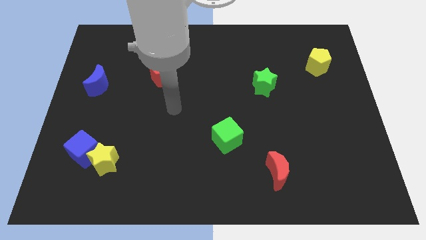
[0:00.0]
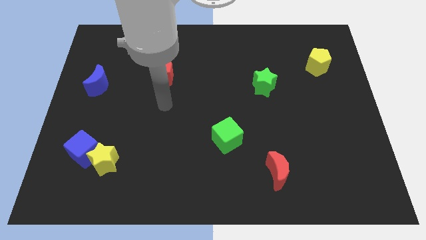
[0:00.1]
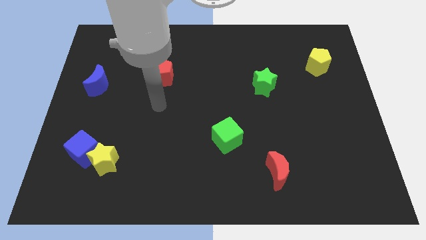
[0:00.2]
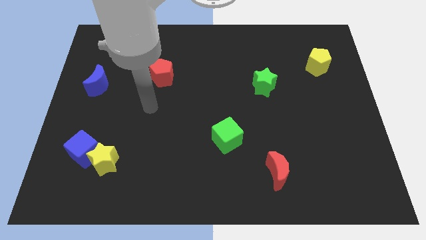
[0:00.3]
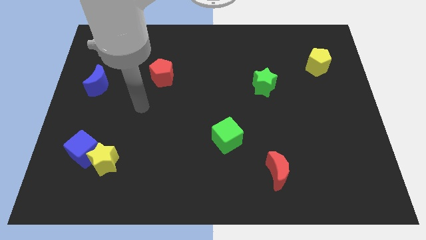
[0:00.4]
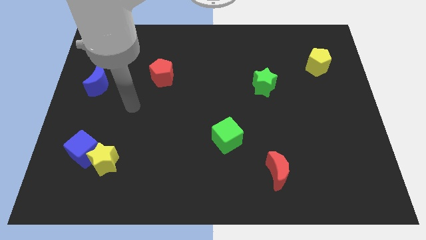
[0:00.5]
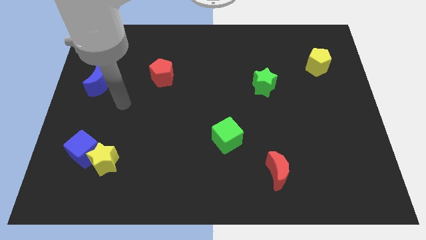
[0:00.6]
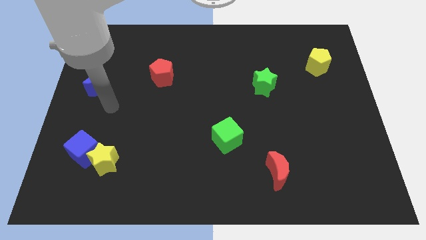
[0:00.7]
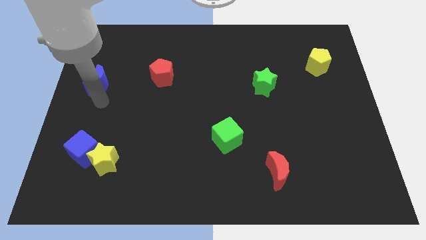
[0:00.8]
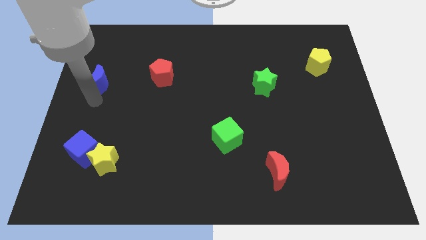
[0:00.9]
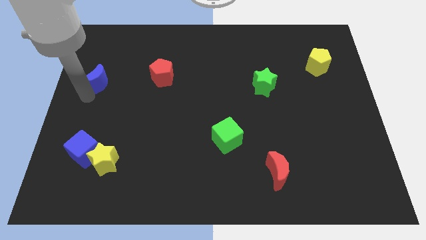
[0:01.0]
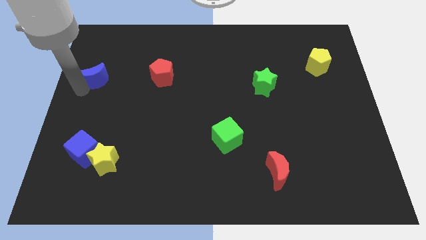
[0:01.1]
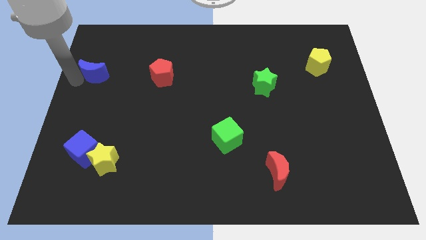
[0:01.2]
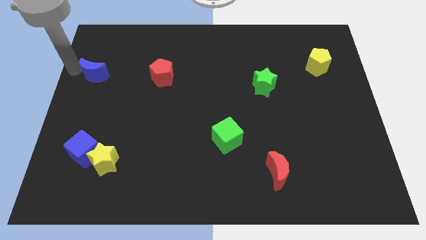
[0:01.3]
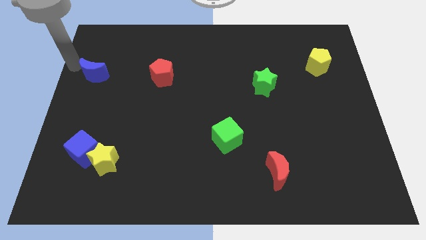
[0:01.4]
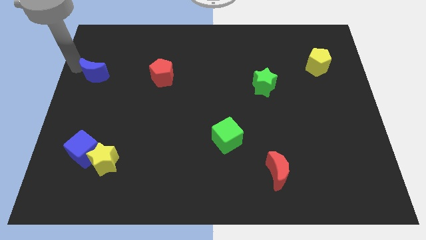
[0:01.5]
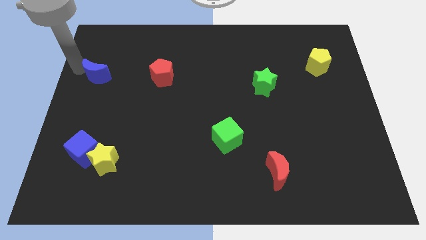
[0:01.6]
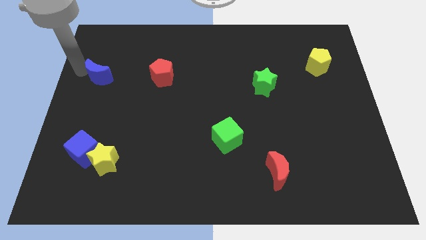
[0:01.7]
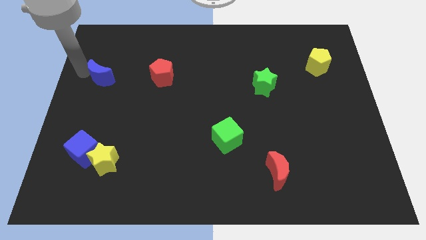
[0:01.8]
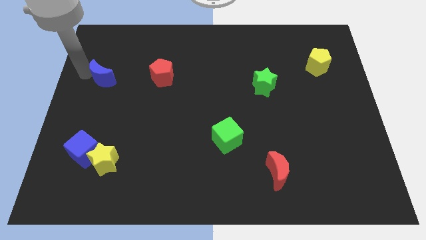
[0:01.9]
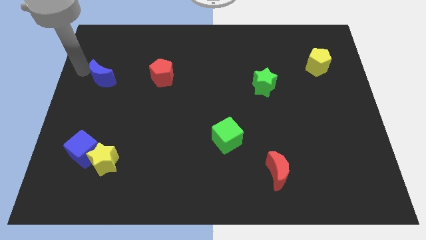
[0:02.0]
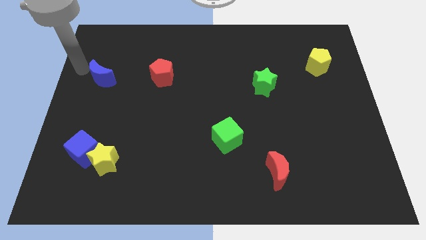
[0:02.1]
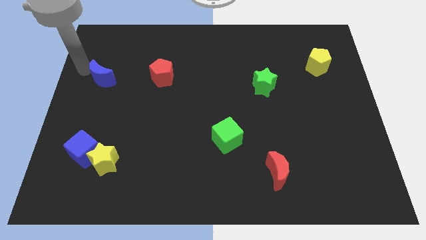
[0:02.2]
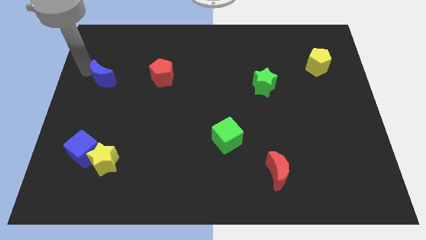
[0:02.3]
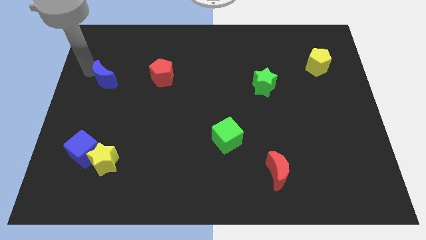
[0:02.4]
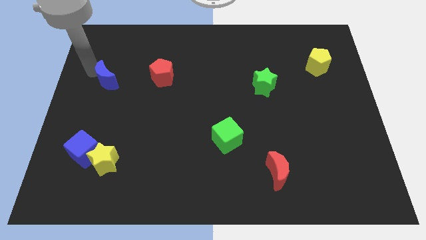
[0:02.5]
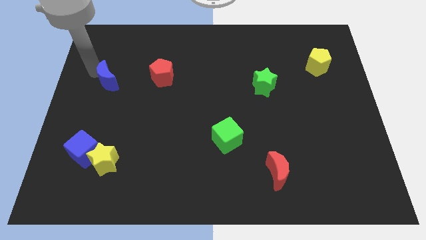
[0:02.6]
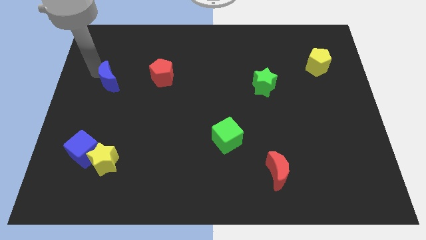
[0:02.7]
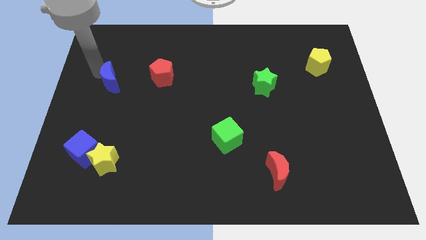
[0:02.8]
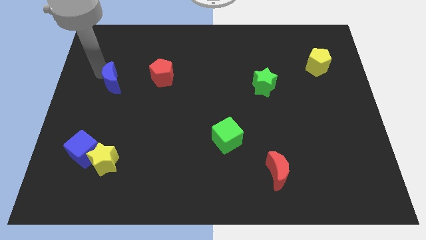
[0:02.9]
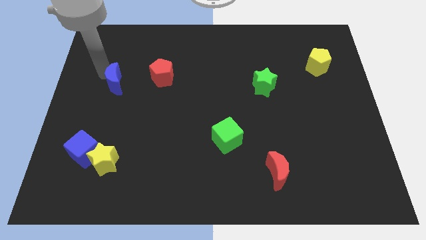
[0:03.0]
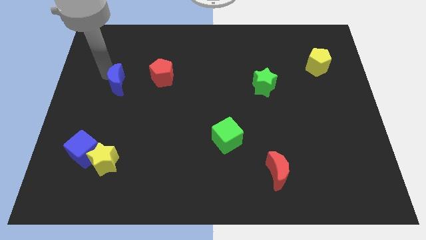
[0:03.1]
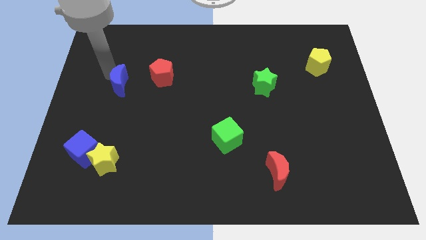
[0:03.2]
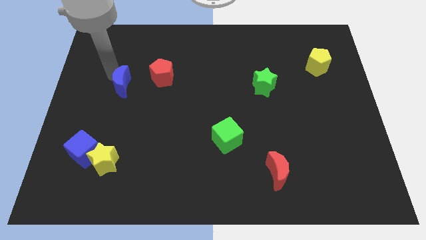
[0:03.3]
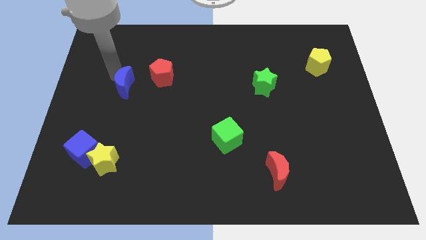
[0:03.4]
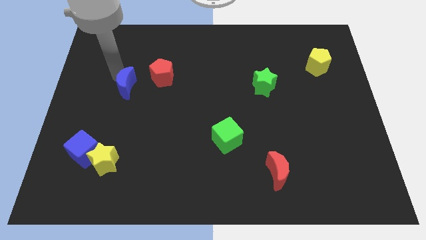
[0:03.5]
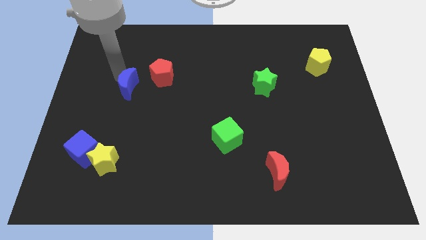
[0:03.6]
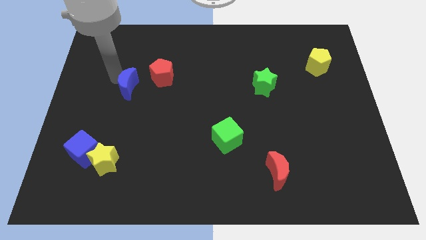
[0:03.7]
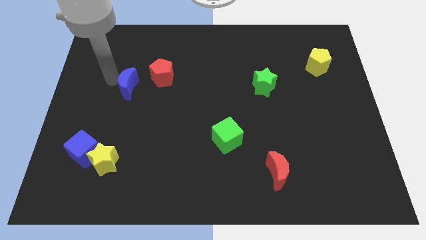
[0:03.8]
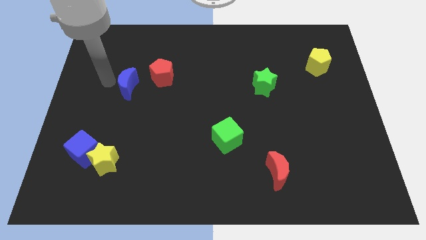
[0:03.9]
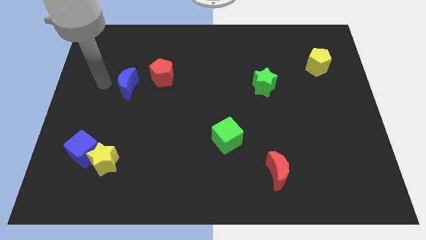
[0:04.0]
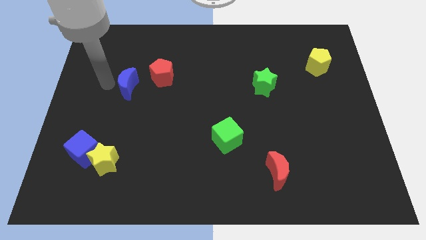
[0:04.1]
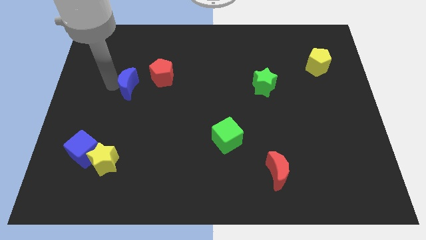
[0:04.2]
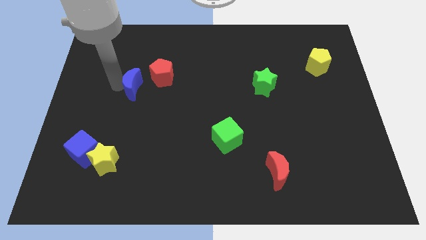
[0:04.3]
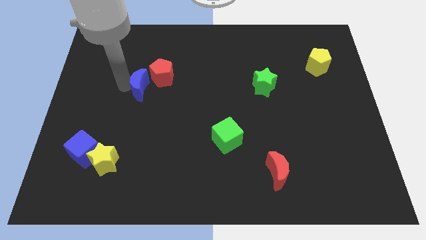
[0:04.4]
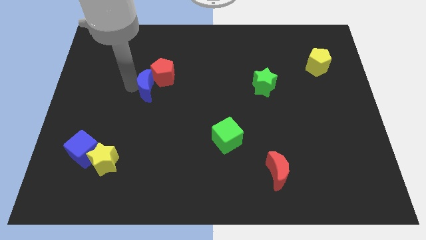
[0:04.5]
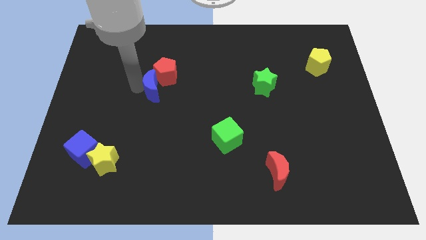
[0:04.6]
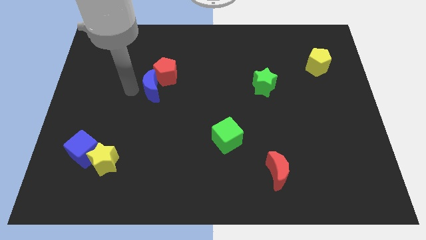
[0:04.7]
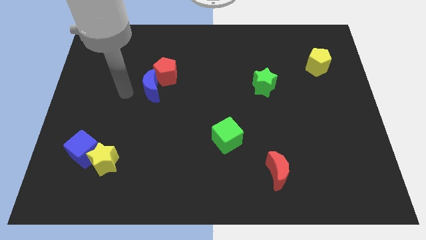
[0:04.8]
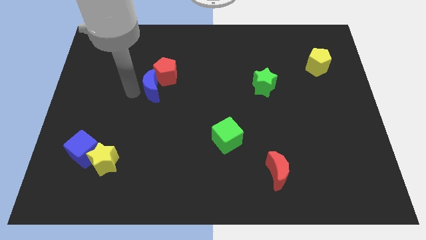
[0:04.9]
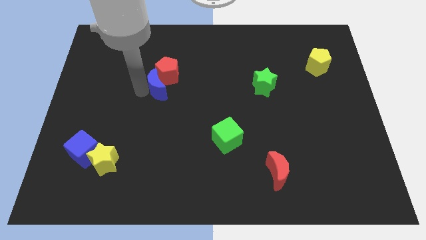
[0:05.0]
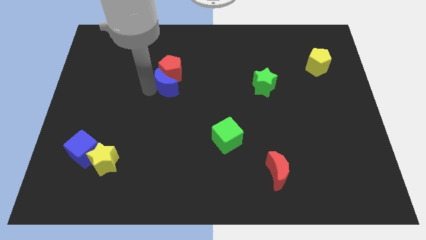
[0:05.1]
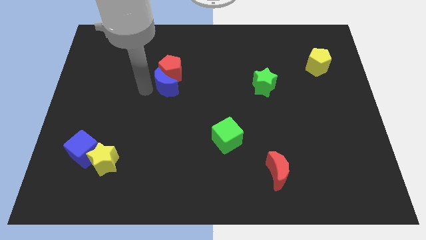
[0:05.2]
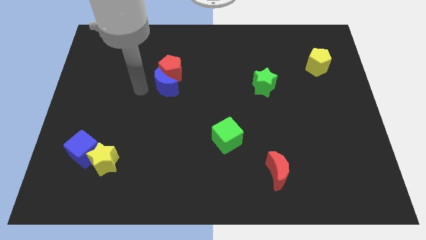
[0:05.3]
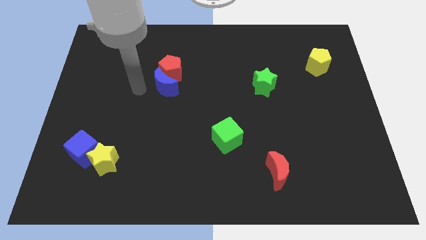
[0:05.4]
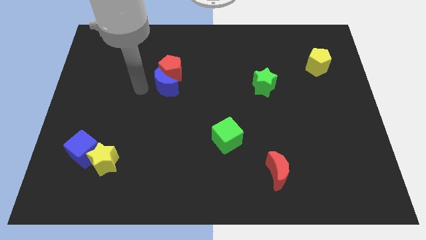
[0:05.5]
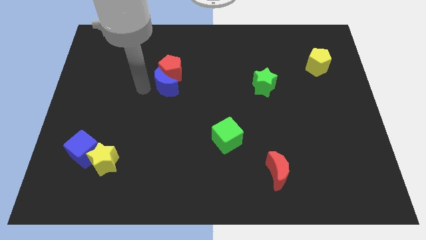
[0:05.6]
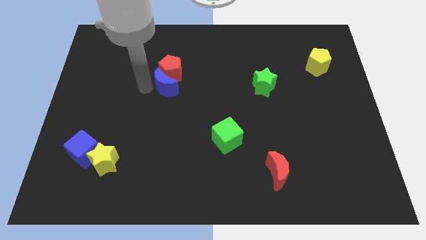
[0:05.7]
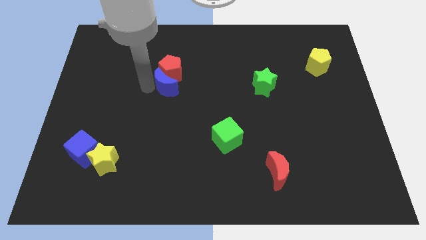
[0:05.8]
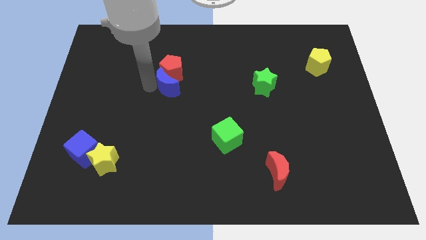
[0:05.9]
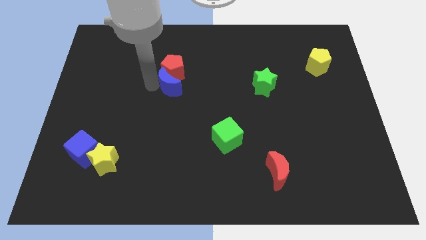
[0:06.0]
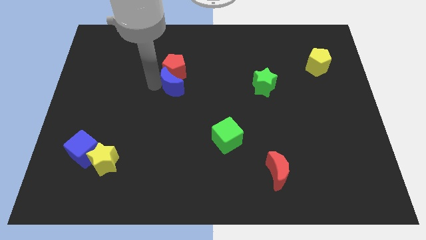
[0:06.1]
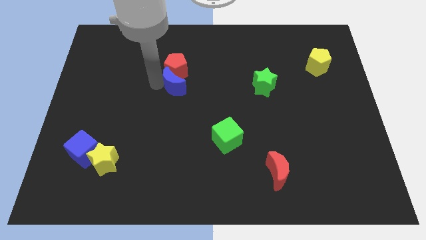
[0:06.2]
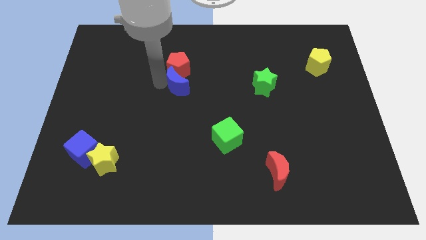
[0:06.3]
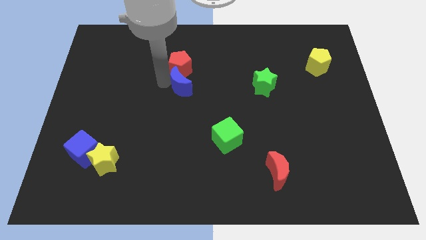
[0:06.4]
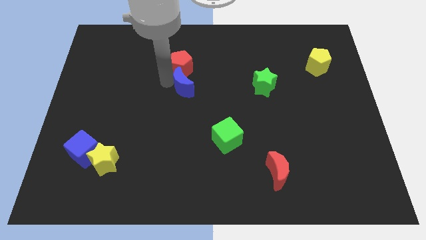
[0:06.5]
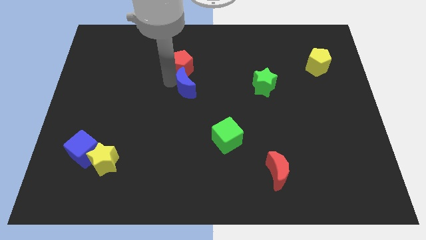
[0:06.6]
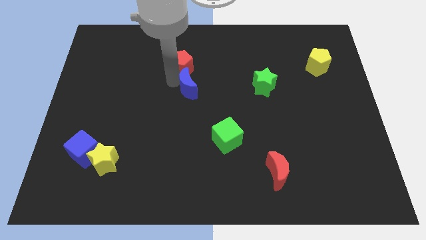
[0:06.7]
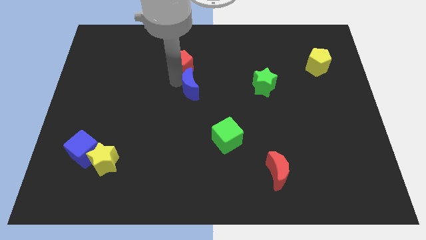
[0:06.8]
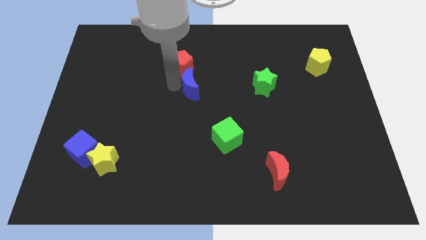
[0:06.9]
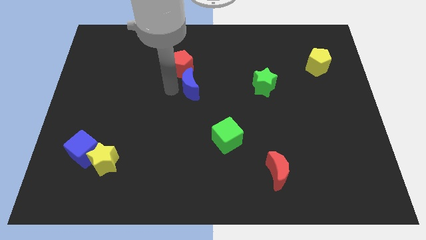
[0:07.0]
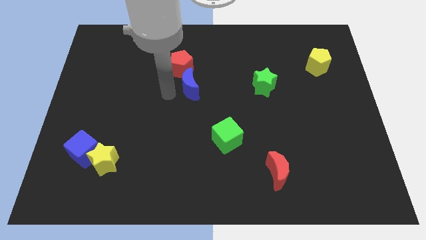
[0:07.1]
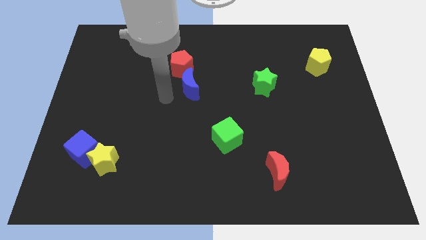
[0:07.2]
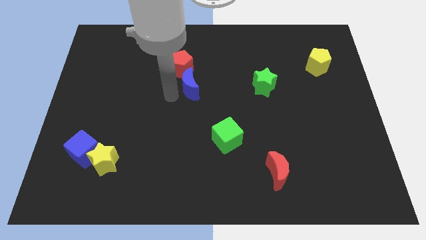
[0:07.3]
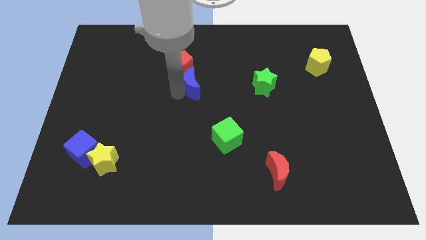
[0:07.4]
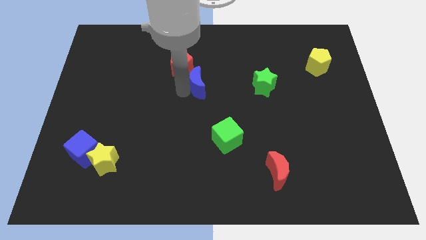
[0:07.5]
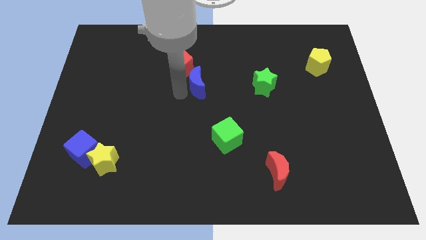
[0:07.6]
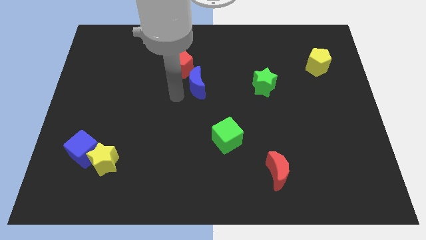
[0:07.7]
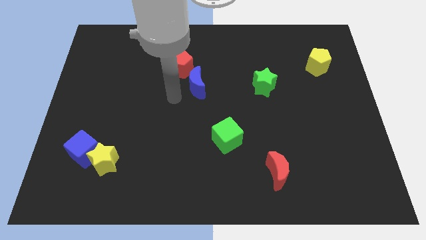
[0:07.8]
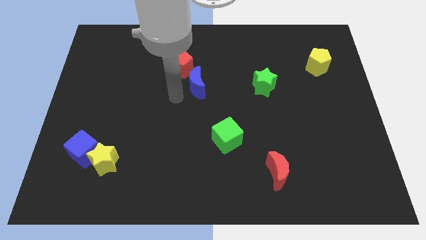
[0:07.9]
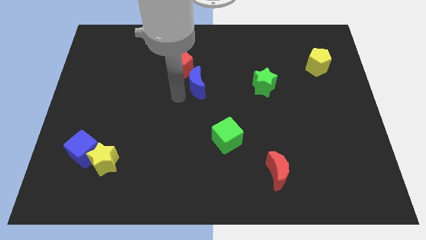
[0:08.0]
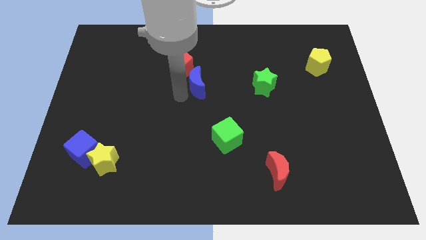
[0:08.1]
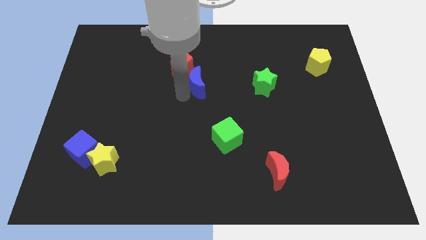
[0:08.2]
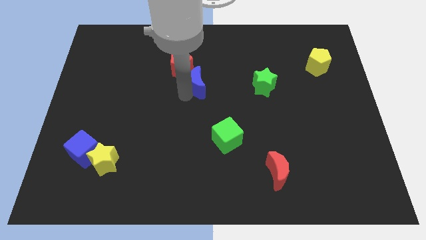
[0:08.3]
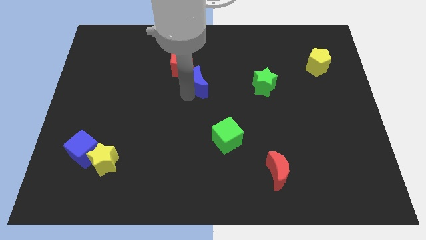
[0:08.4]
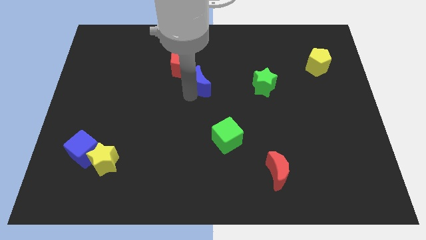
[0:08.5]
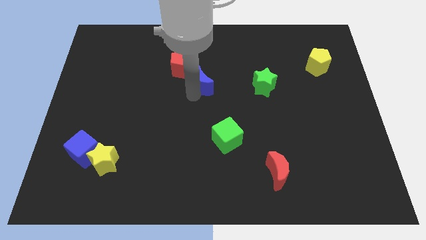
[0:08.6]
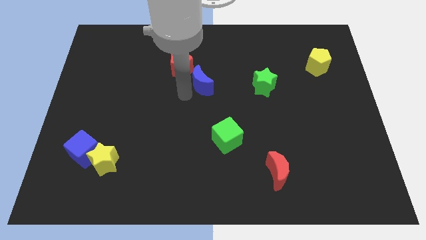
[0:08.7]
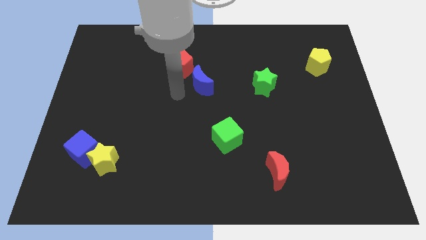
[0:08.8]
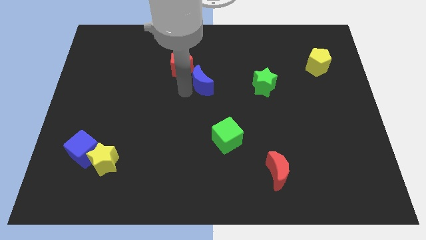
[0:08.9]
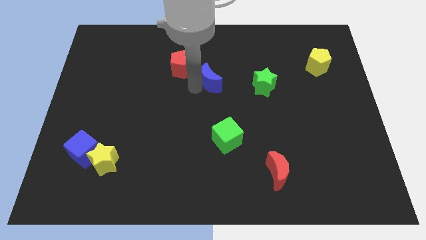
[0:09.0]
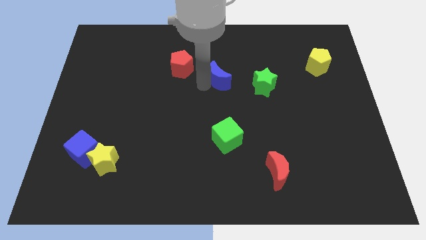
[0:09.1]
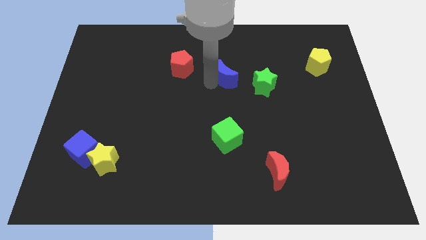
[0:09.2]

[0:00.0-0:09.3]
move the blue moon to the top left side of the green star
